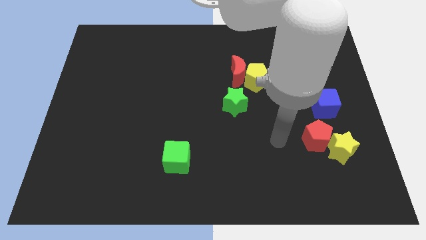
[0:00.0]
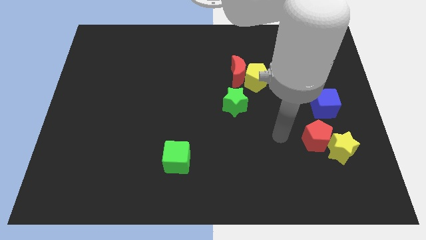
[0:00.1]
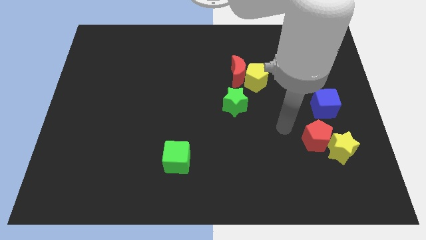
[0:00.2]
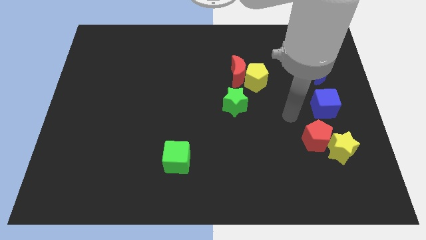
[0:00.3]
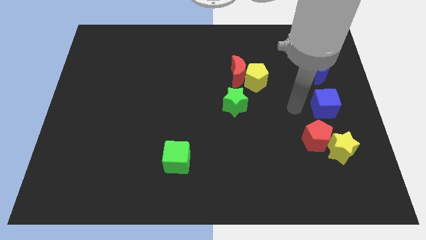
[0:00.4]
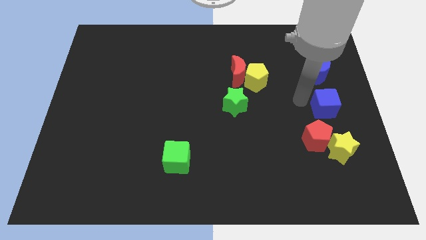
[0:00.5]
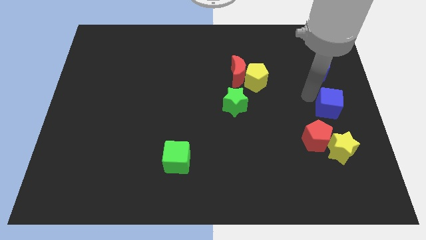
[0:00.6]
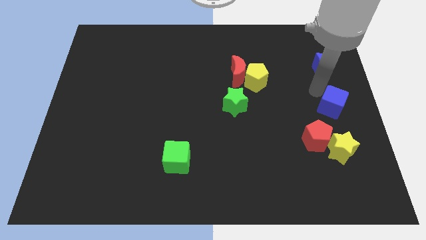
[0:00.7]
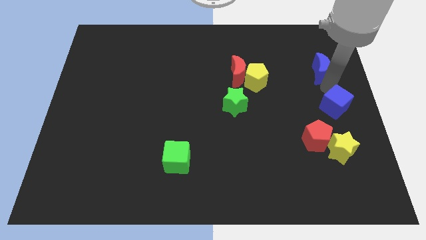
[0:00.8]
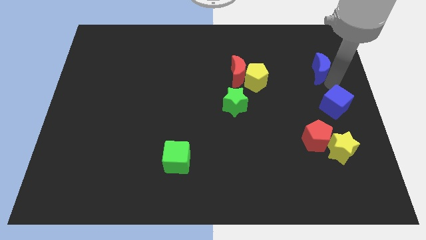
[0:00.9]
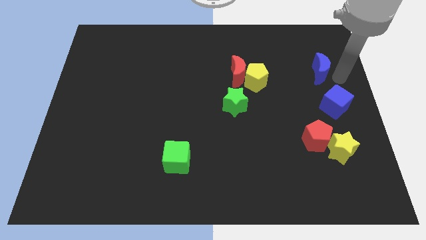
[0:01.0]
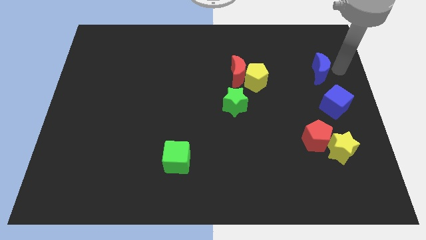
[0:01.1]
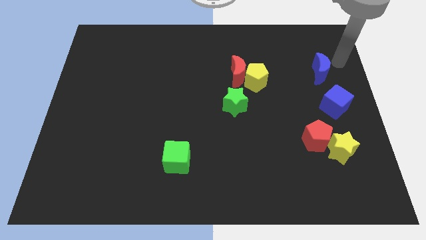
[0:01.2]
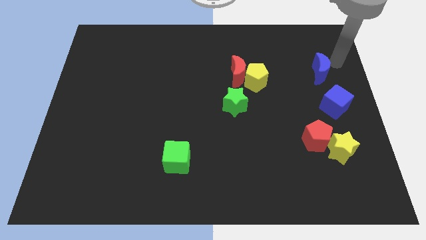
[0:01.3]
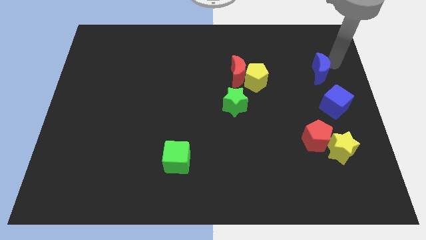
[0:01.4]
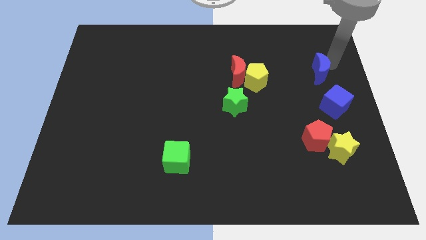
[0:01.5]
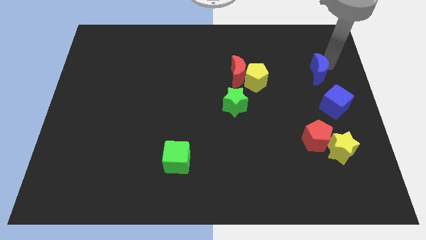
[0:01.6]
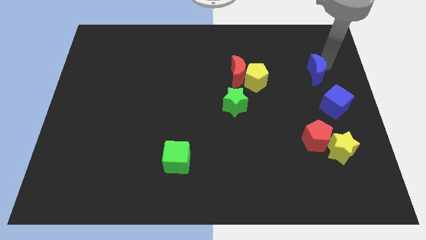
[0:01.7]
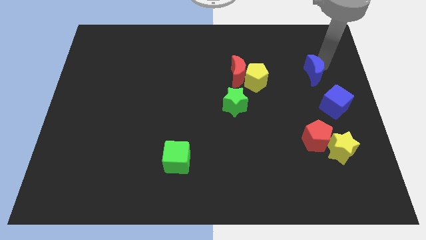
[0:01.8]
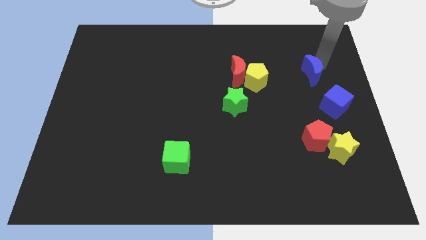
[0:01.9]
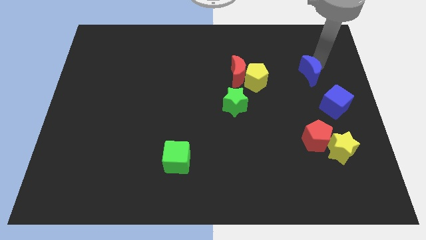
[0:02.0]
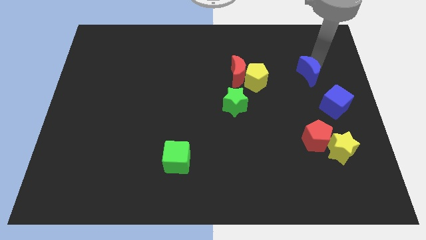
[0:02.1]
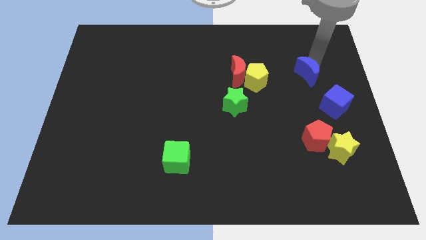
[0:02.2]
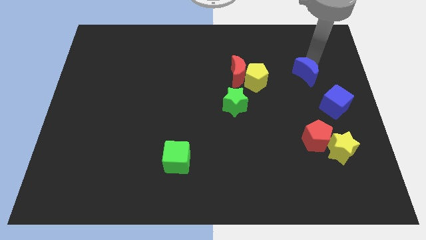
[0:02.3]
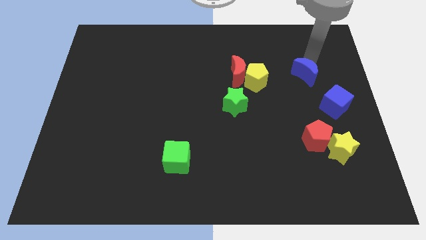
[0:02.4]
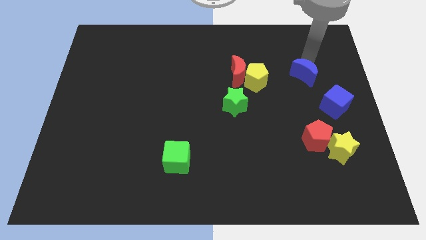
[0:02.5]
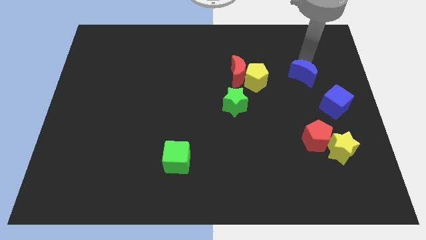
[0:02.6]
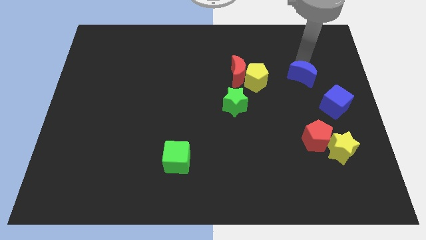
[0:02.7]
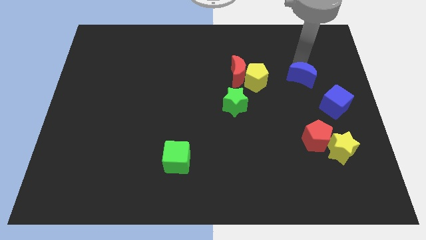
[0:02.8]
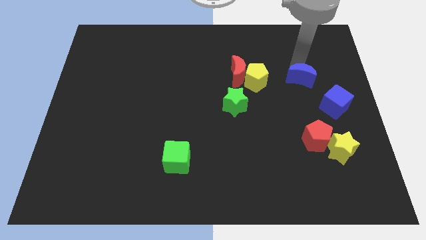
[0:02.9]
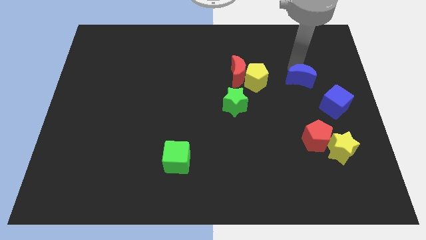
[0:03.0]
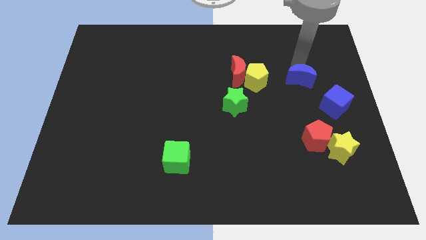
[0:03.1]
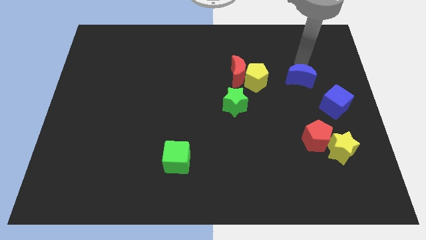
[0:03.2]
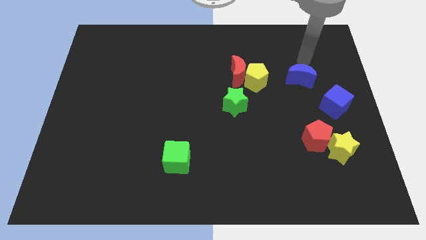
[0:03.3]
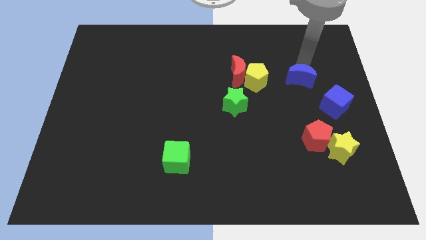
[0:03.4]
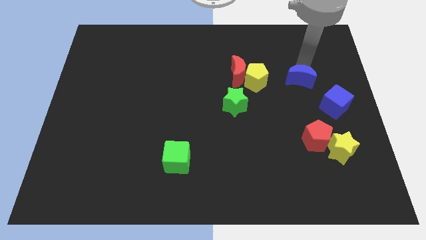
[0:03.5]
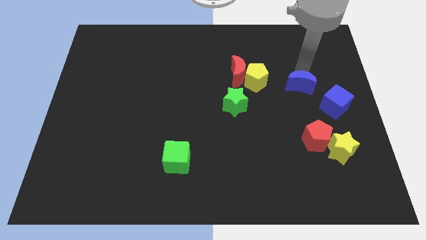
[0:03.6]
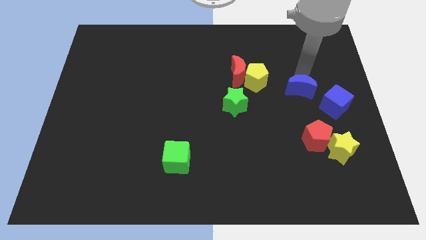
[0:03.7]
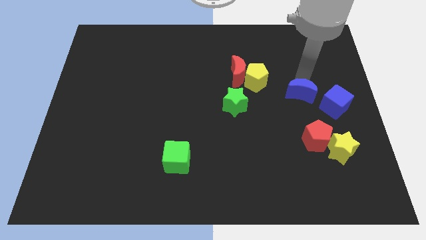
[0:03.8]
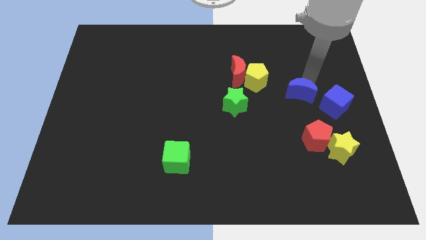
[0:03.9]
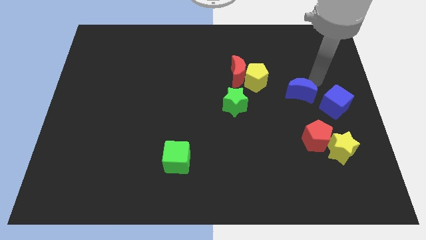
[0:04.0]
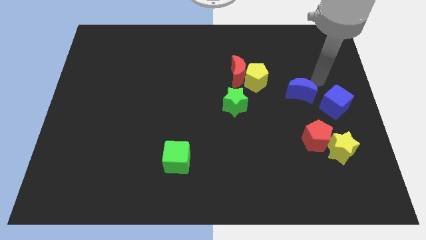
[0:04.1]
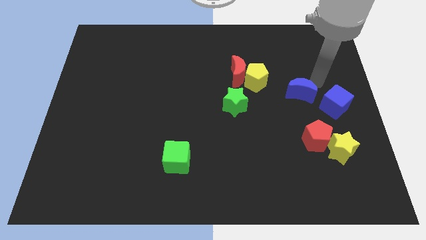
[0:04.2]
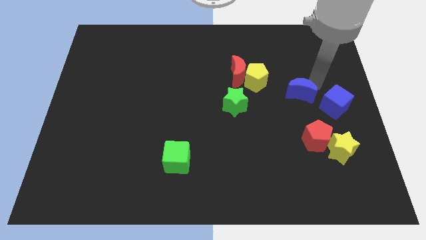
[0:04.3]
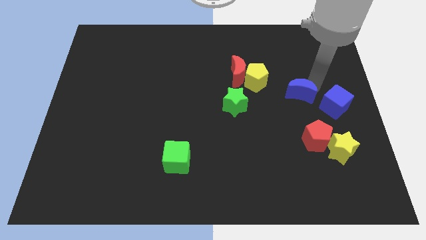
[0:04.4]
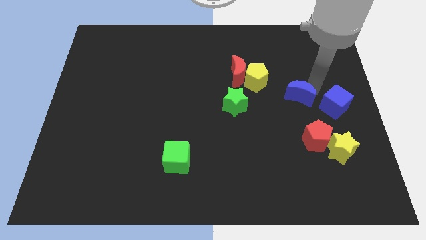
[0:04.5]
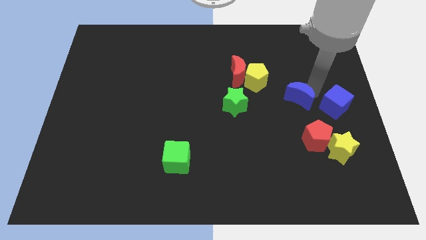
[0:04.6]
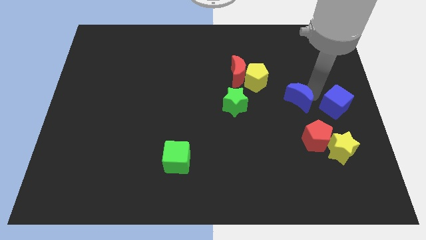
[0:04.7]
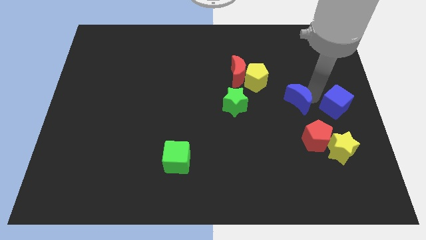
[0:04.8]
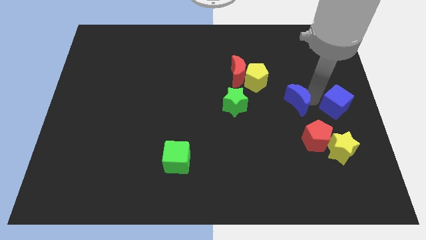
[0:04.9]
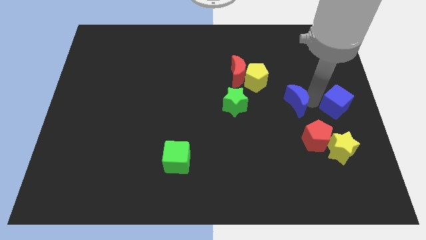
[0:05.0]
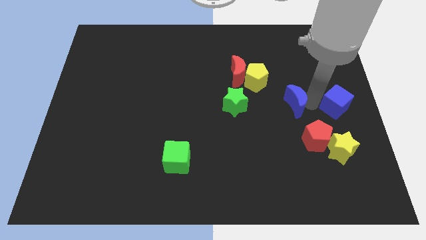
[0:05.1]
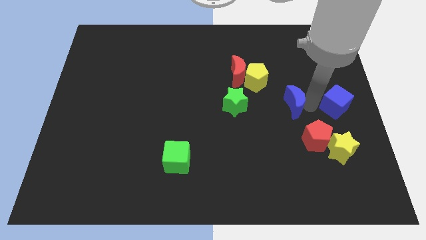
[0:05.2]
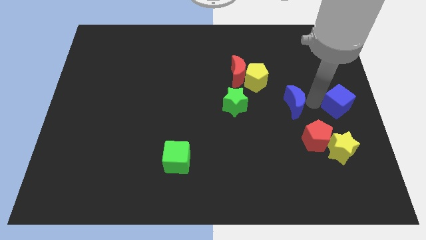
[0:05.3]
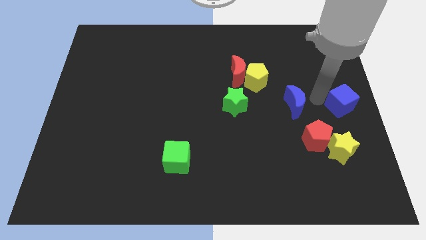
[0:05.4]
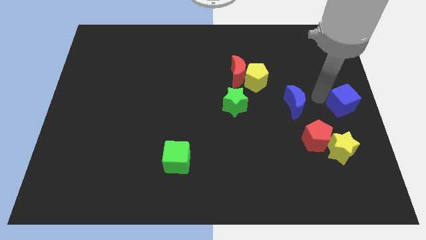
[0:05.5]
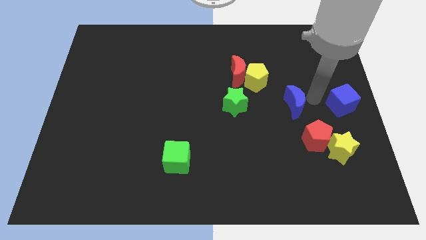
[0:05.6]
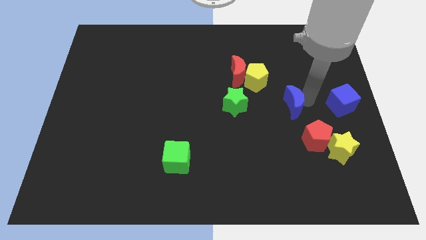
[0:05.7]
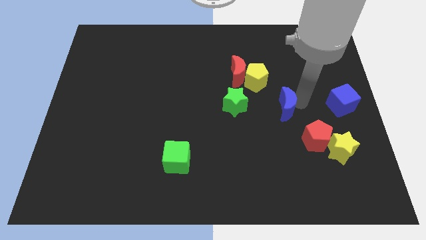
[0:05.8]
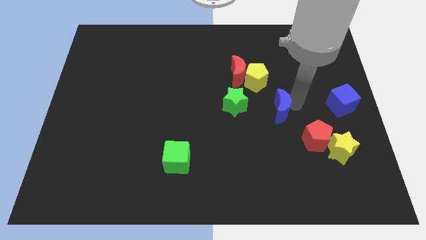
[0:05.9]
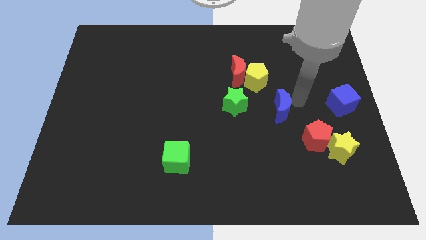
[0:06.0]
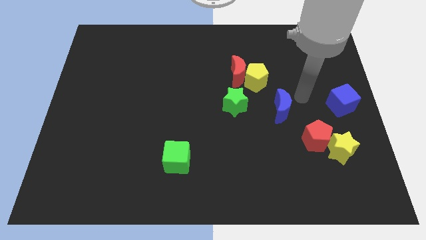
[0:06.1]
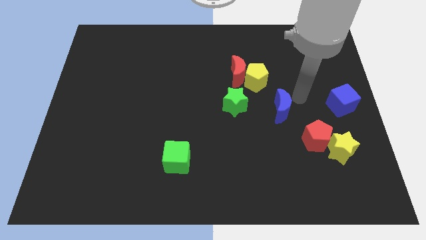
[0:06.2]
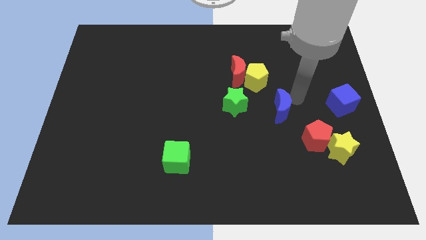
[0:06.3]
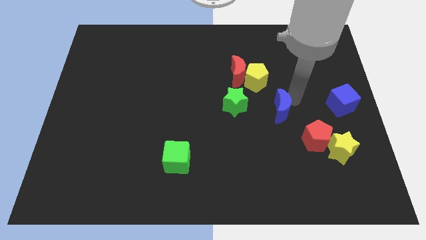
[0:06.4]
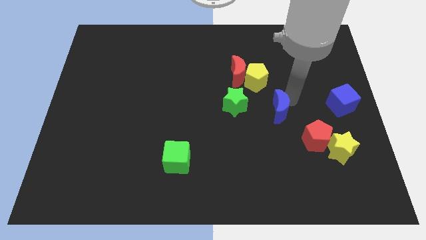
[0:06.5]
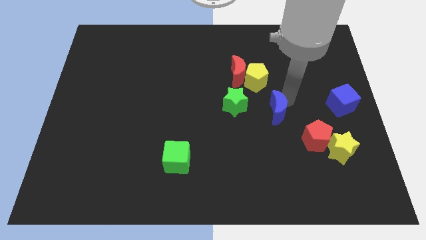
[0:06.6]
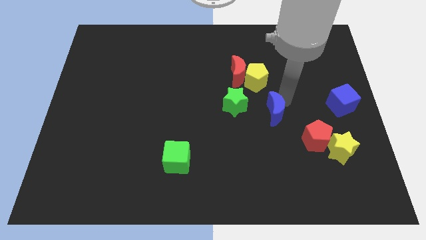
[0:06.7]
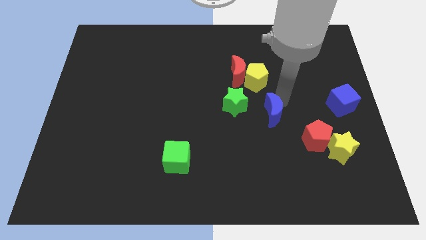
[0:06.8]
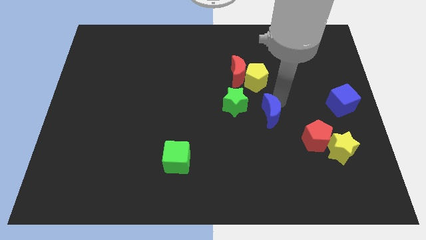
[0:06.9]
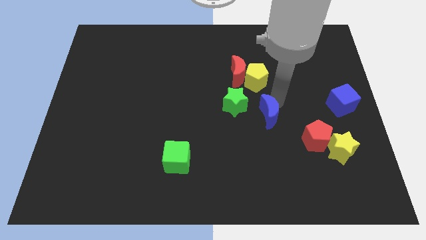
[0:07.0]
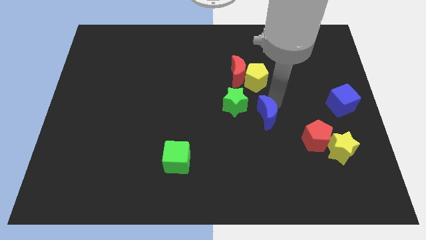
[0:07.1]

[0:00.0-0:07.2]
move the blue moon down and left diagonally

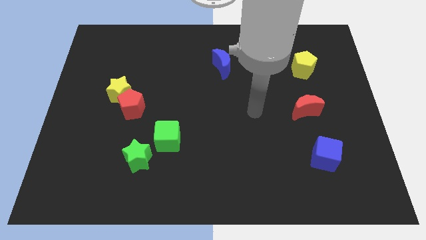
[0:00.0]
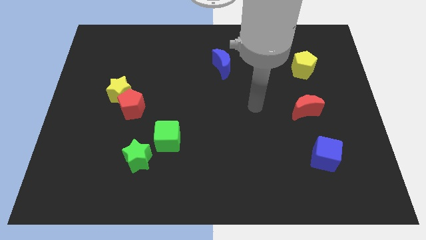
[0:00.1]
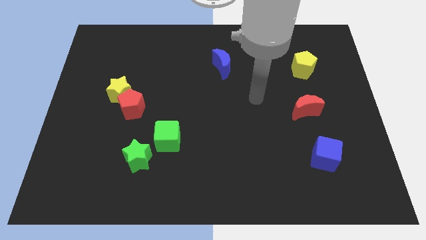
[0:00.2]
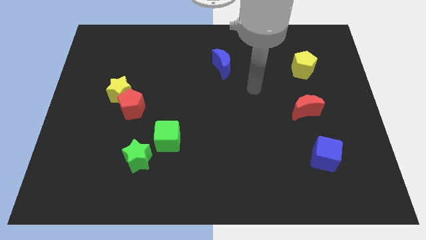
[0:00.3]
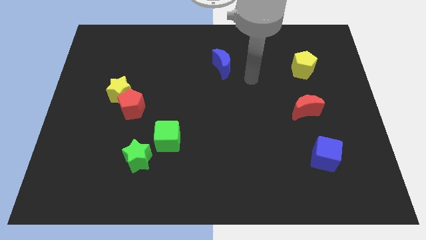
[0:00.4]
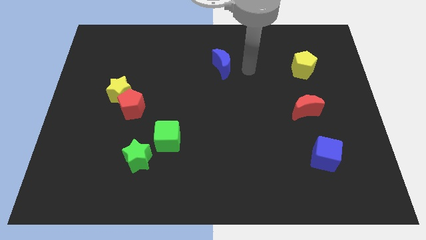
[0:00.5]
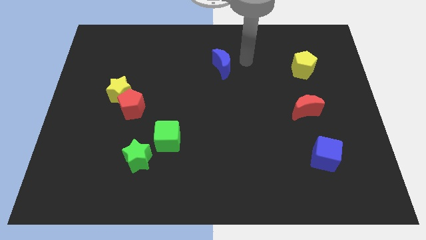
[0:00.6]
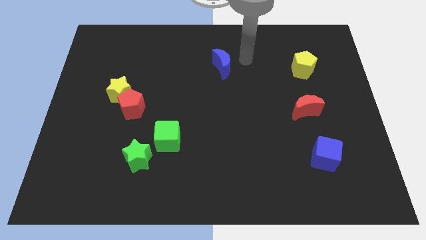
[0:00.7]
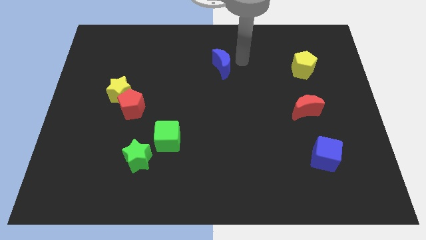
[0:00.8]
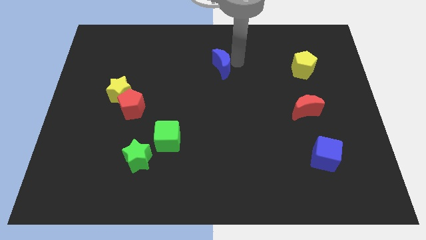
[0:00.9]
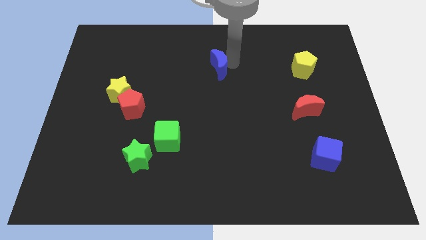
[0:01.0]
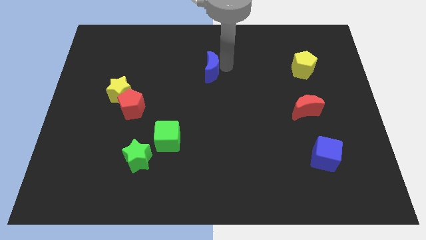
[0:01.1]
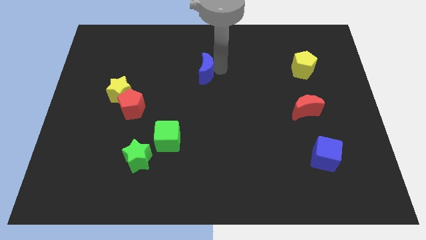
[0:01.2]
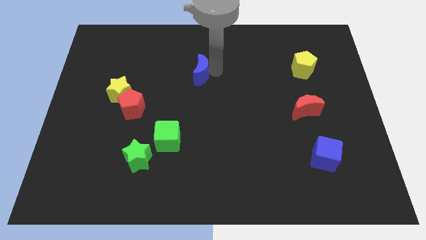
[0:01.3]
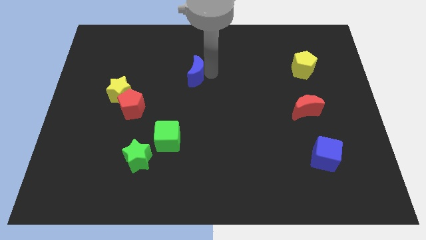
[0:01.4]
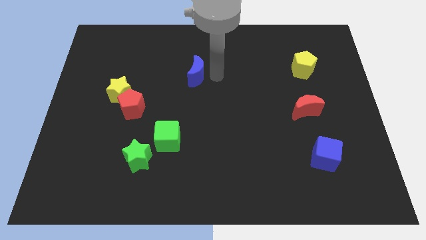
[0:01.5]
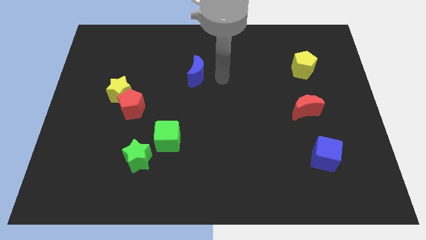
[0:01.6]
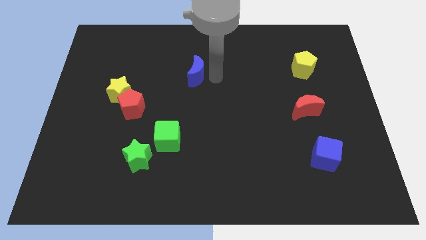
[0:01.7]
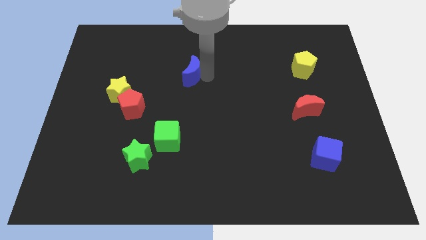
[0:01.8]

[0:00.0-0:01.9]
slide the blue moon to the left a little bit
